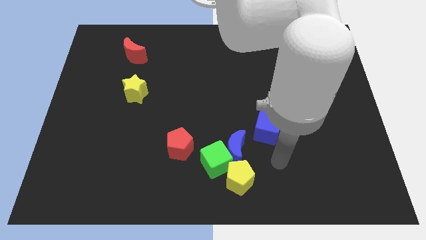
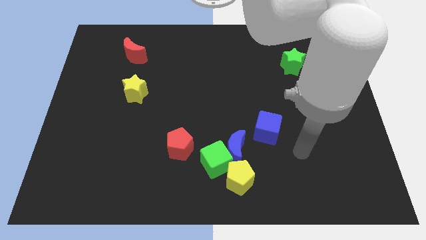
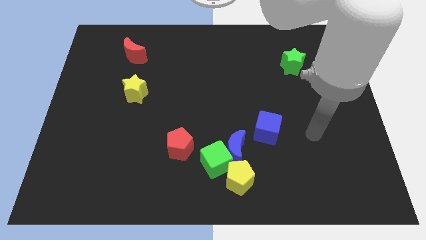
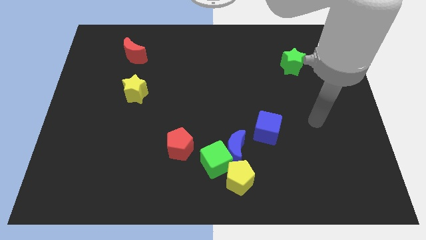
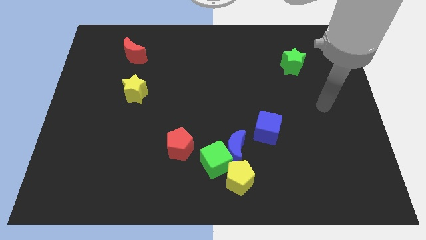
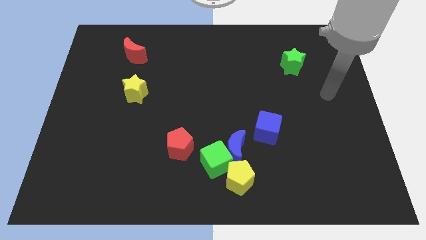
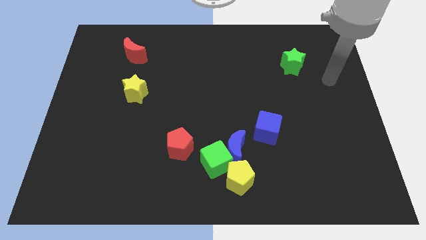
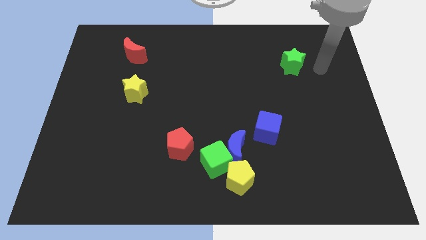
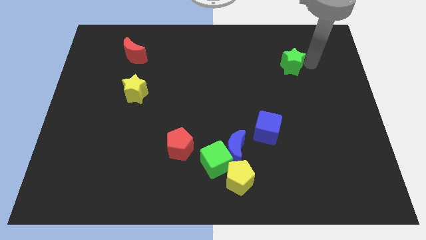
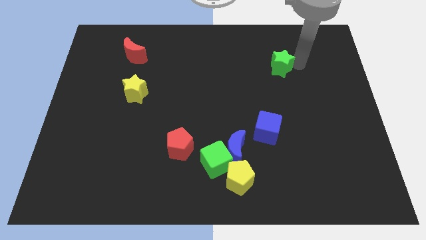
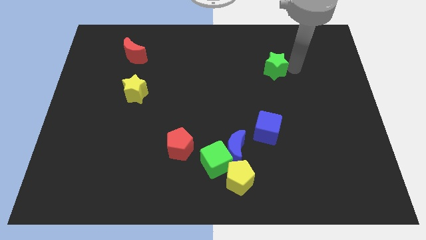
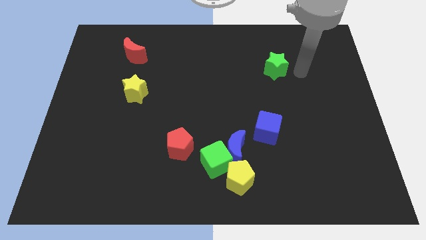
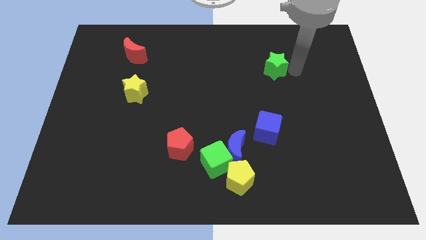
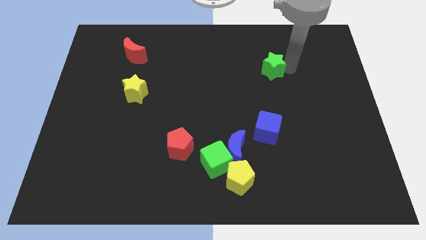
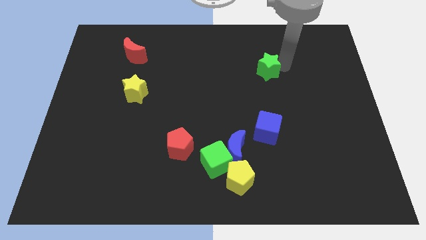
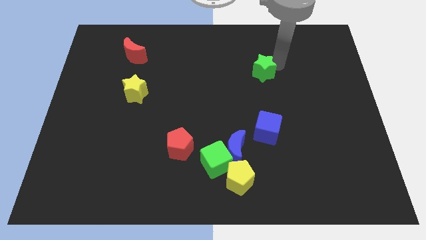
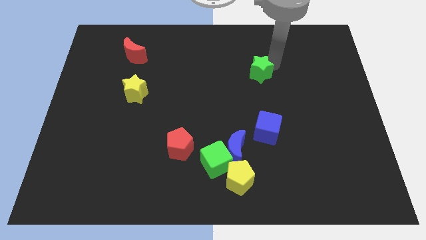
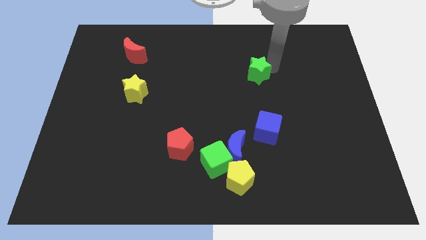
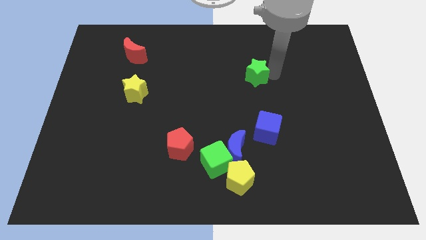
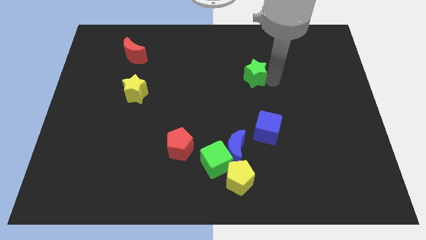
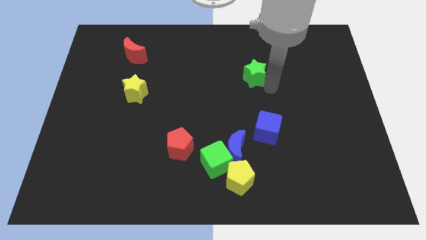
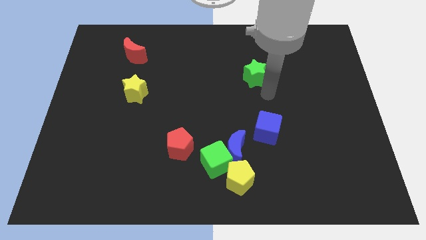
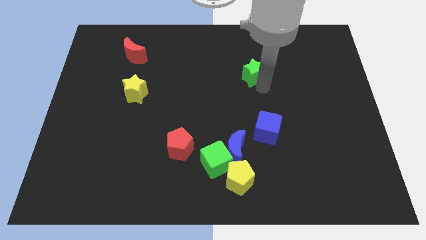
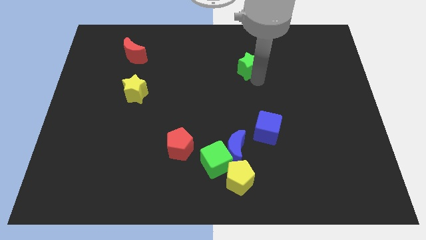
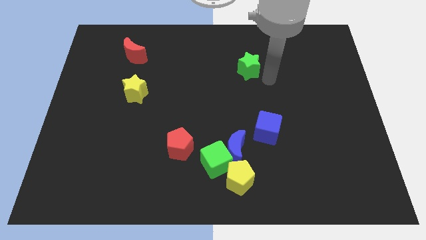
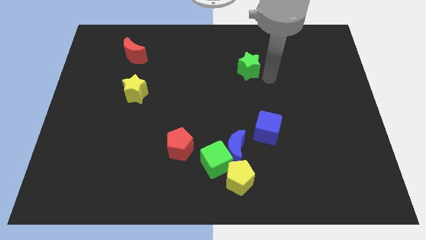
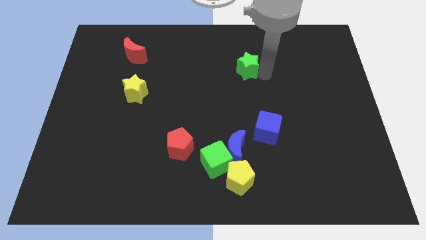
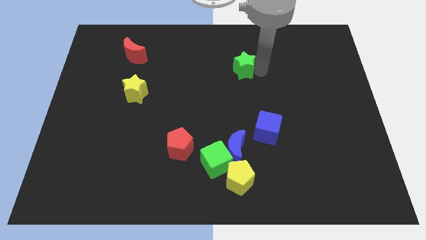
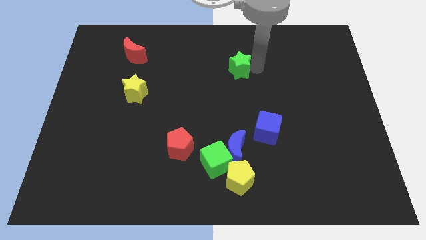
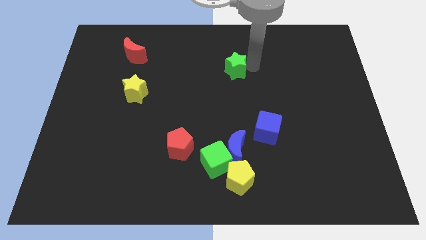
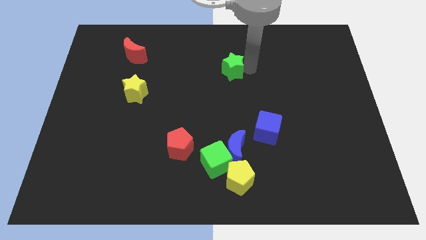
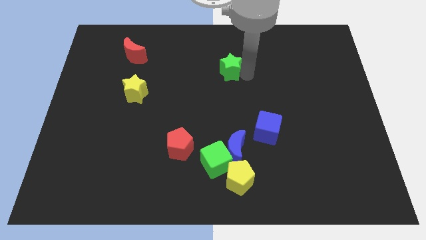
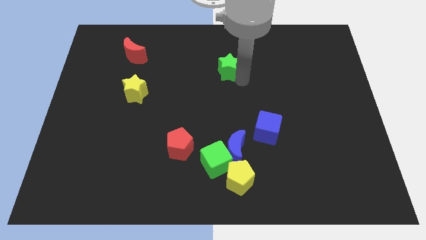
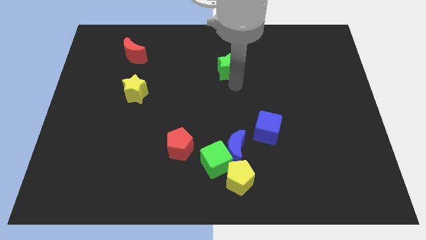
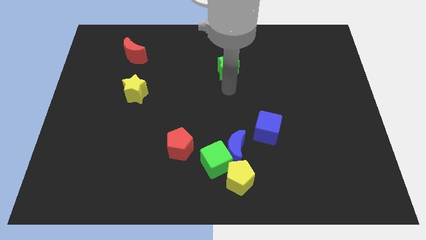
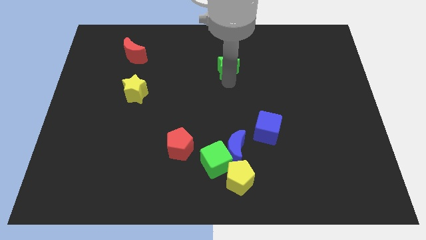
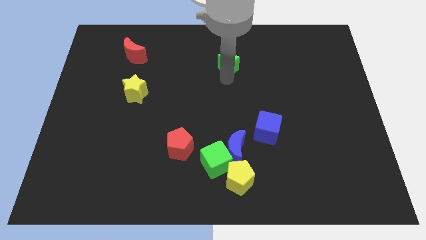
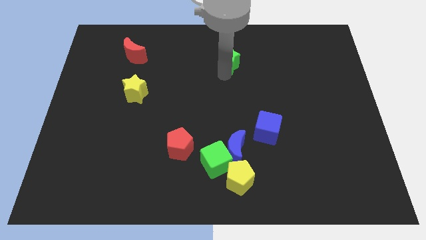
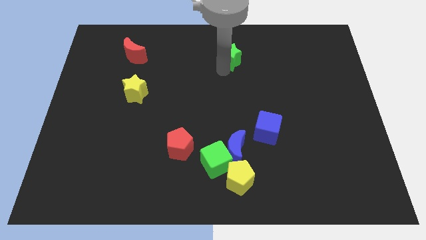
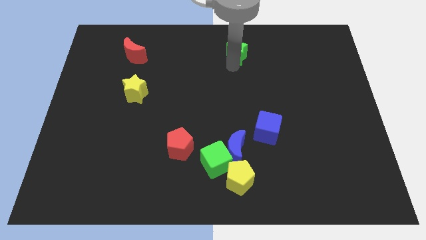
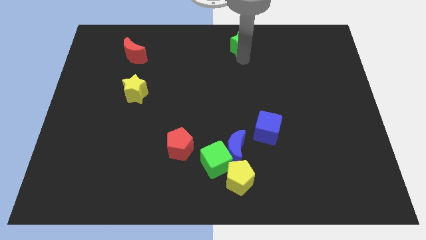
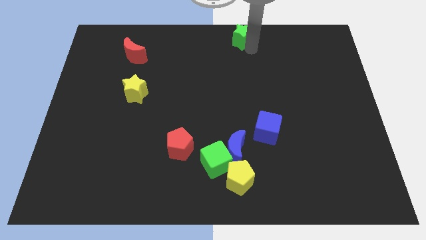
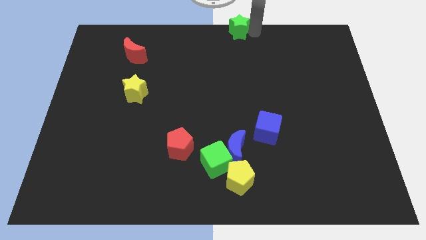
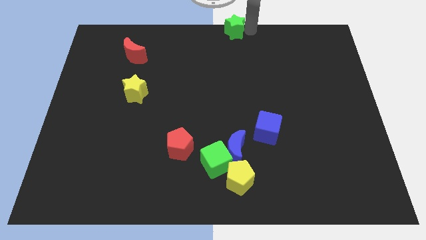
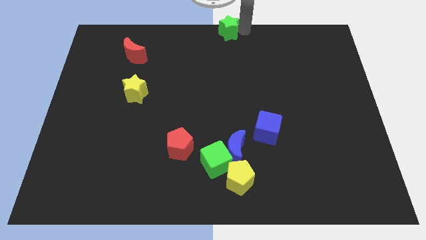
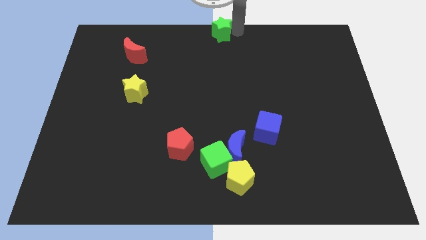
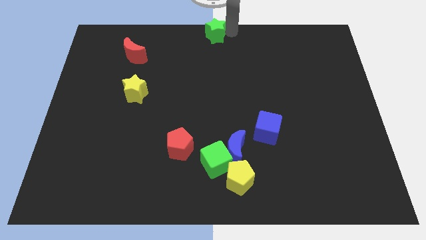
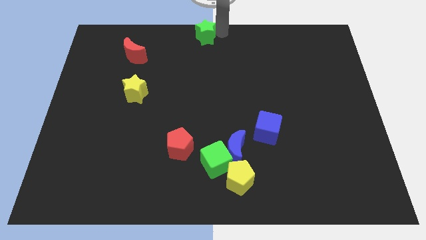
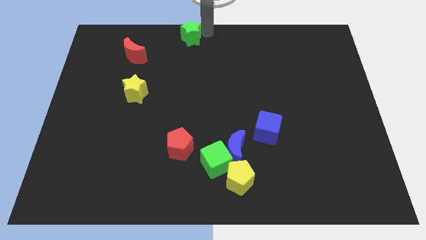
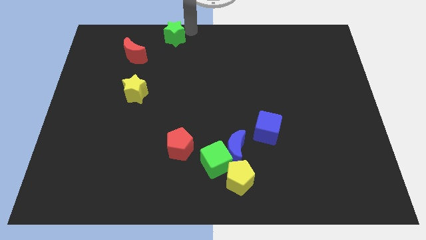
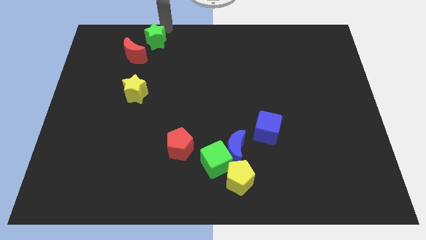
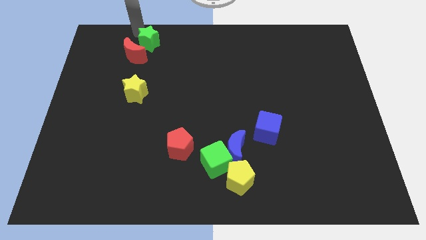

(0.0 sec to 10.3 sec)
push the green star towards the red moon

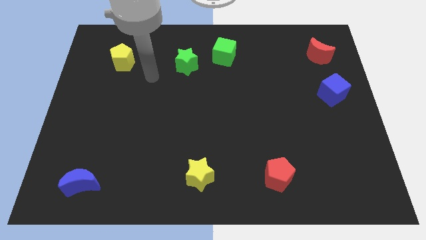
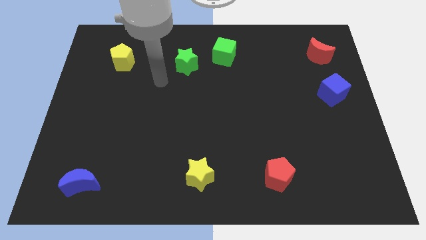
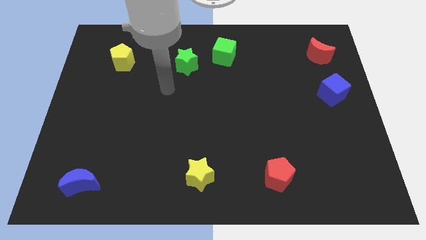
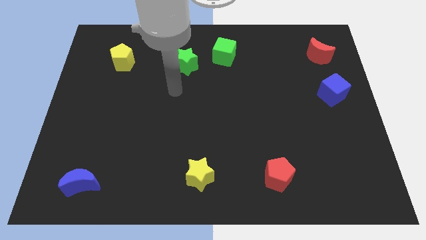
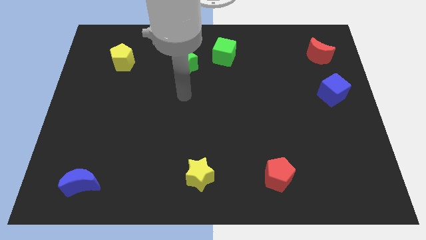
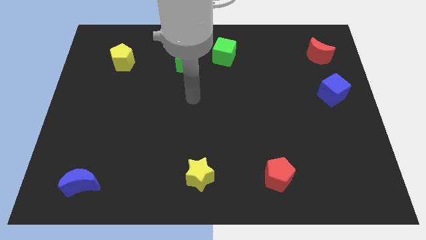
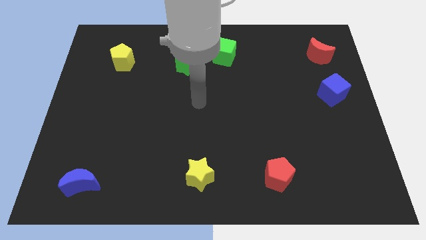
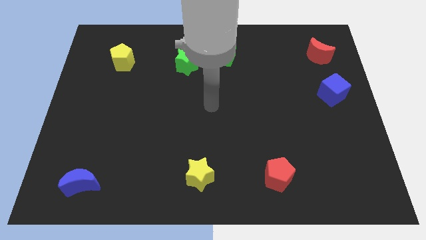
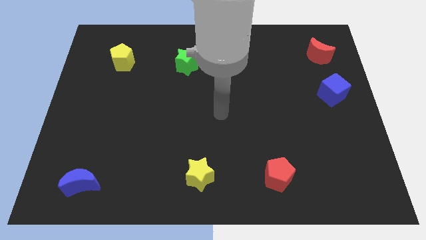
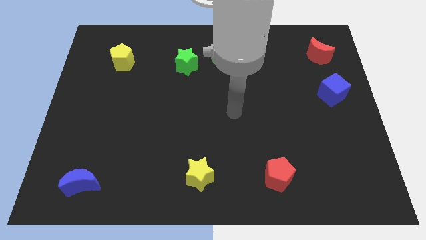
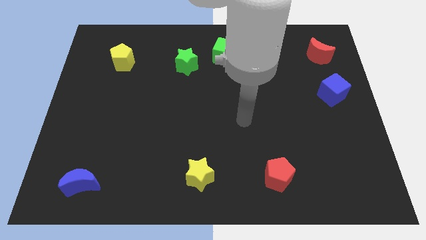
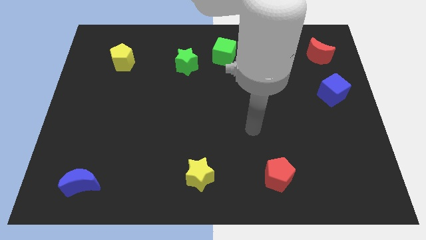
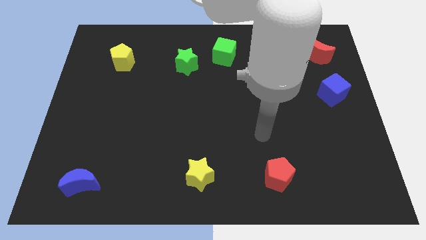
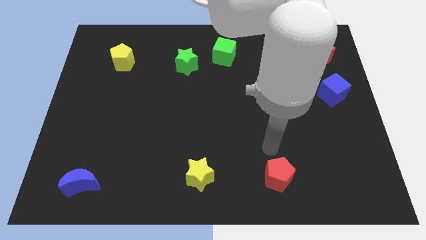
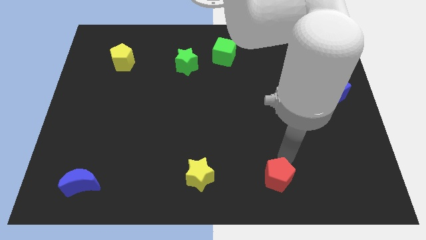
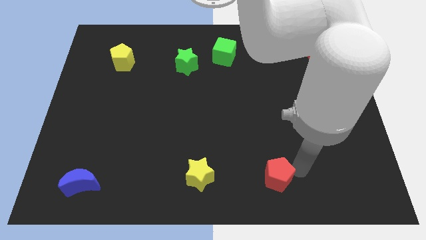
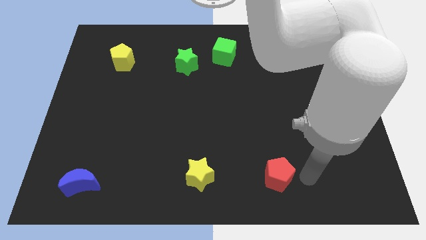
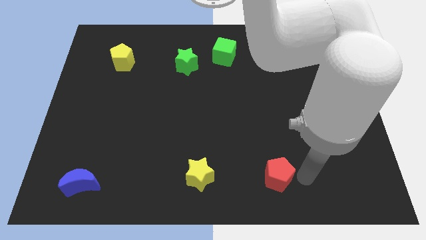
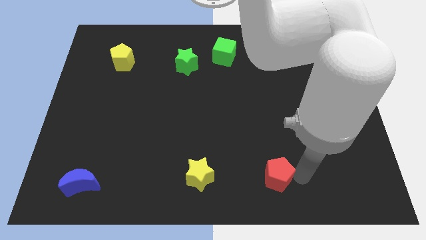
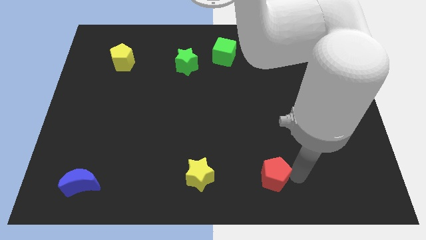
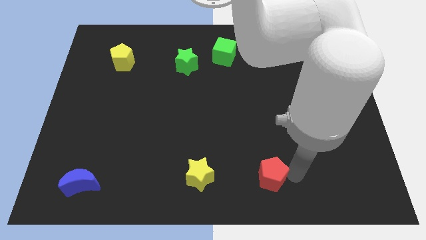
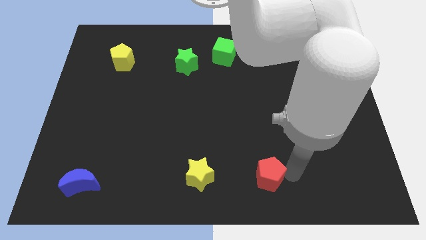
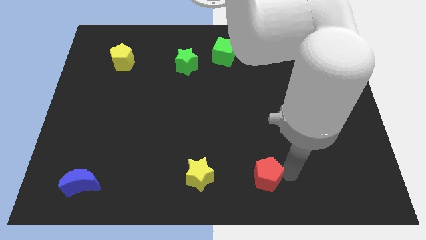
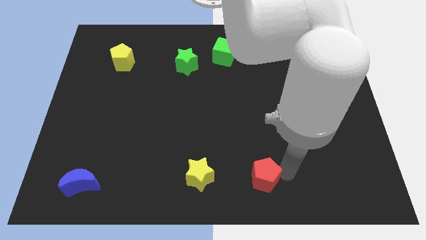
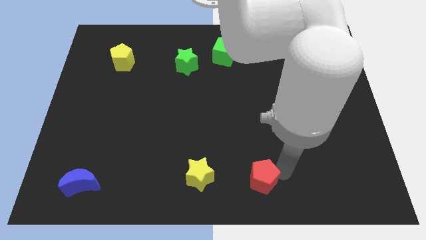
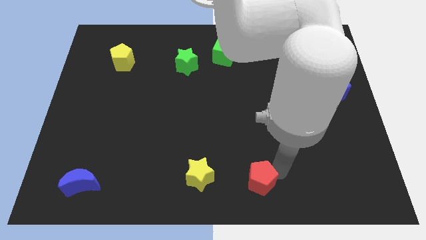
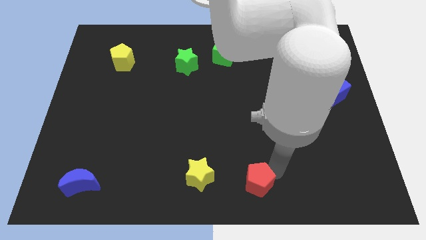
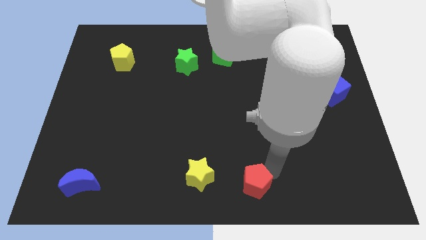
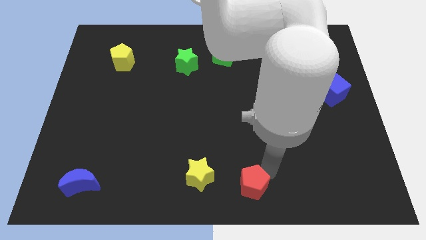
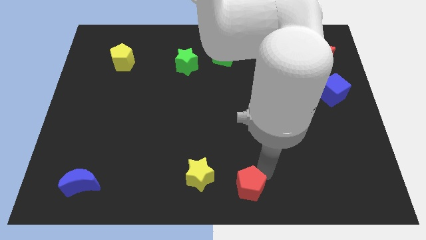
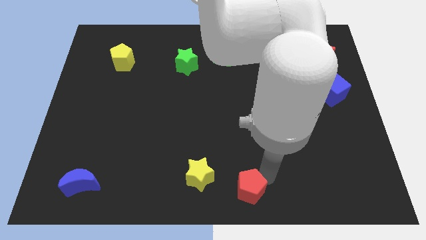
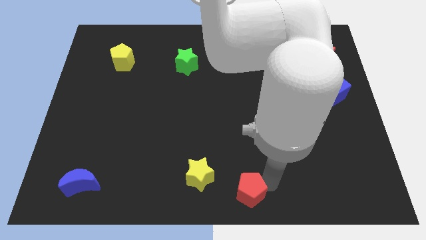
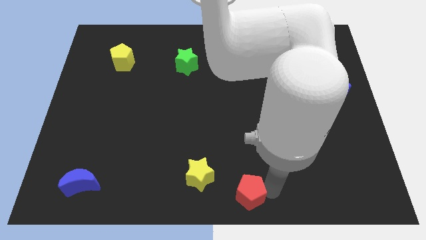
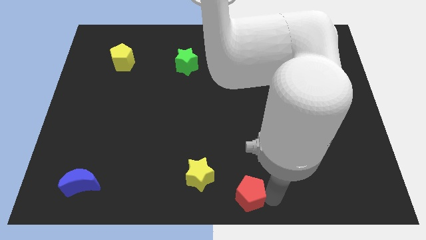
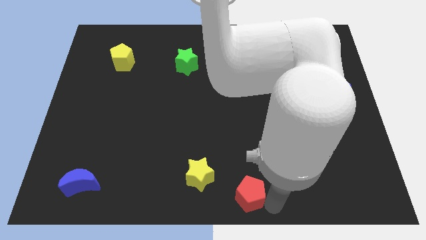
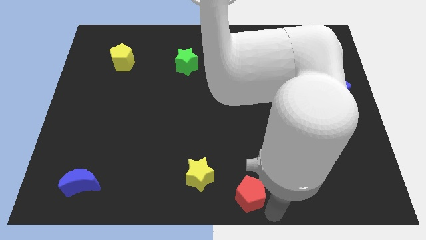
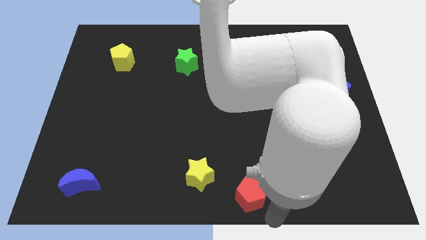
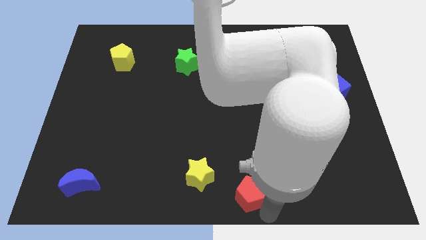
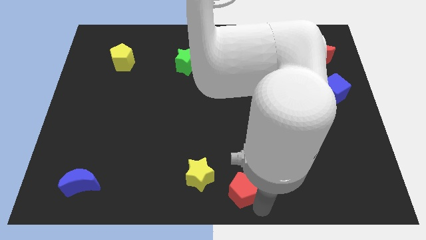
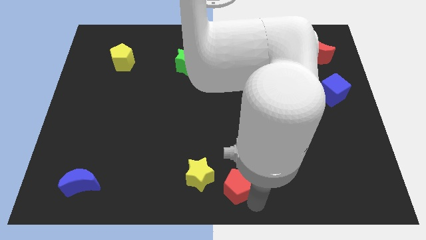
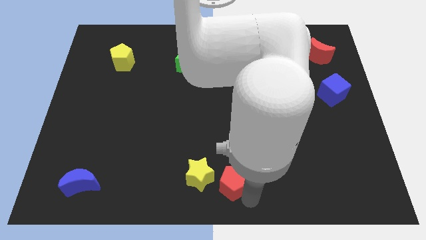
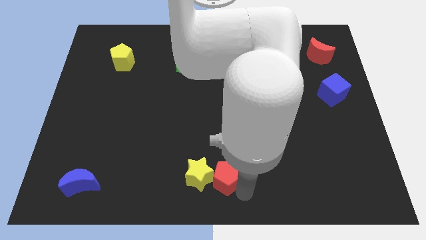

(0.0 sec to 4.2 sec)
push the red pentagon close to the yellow star
